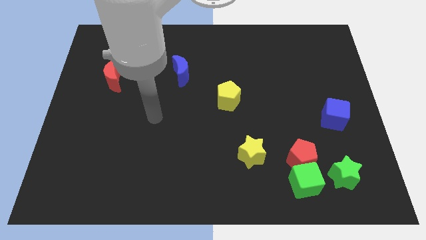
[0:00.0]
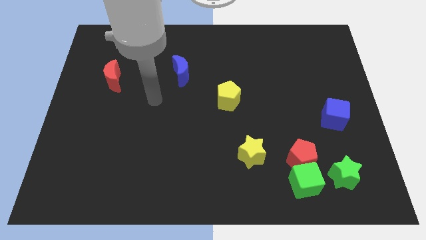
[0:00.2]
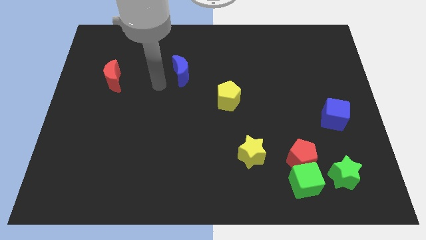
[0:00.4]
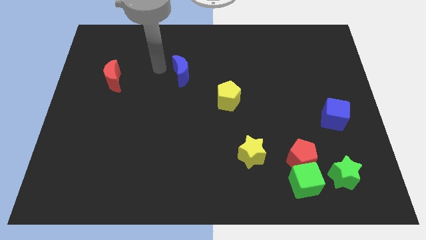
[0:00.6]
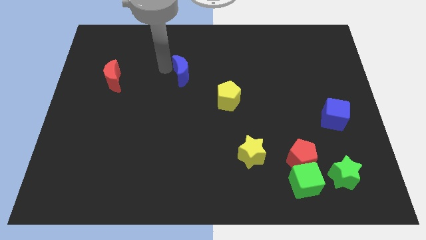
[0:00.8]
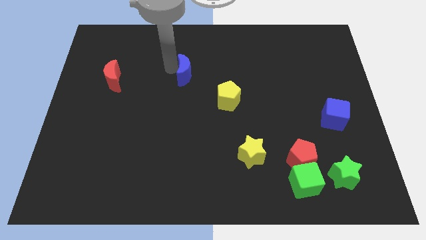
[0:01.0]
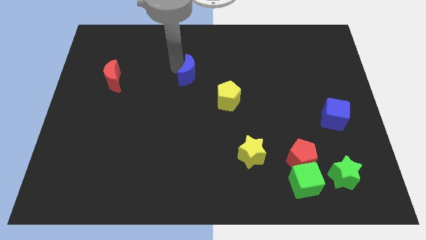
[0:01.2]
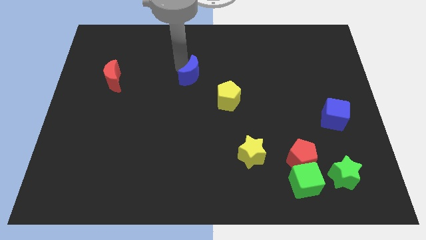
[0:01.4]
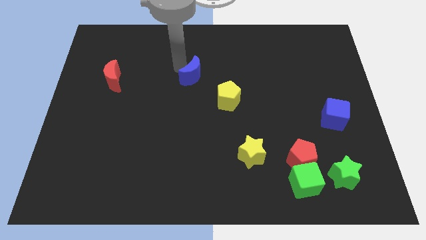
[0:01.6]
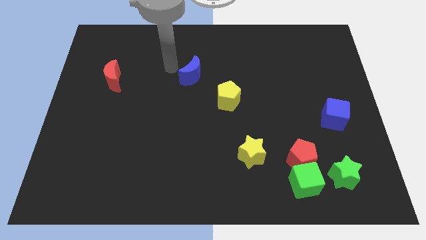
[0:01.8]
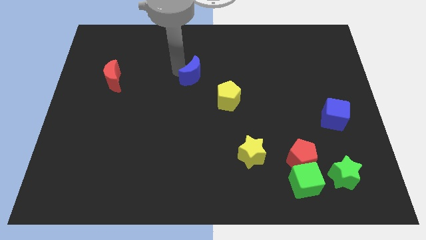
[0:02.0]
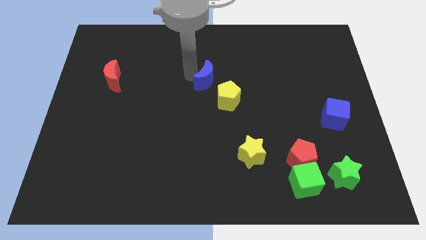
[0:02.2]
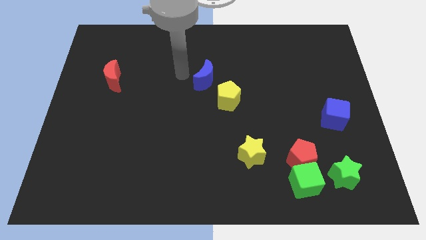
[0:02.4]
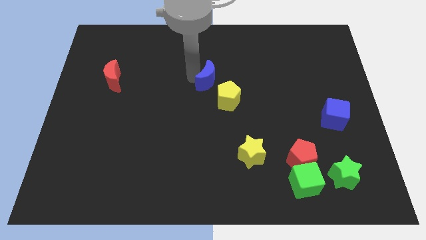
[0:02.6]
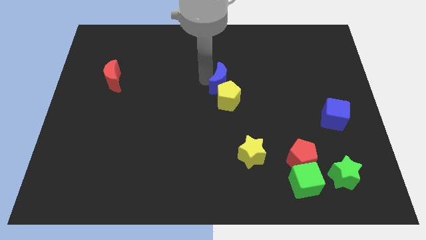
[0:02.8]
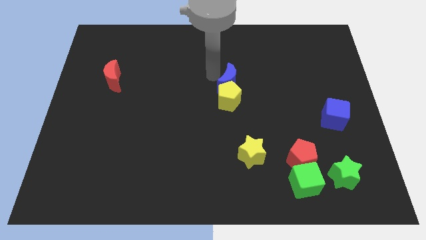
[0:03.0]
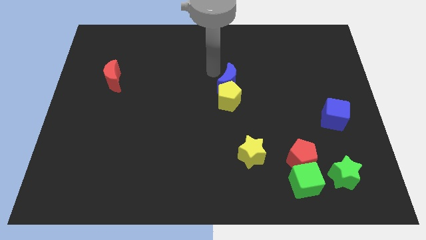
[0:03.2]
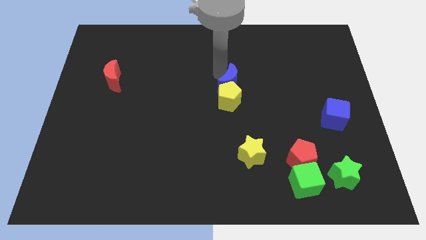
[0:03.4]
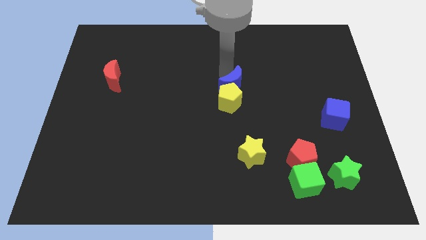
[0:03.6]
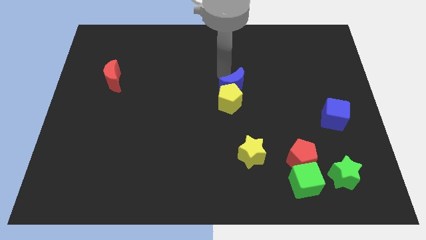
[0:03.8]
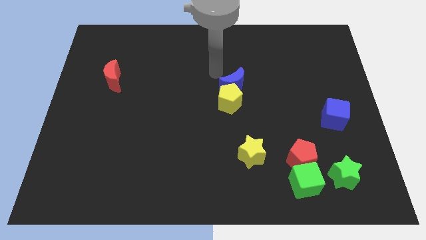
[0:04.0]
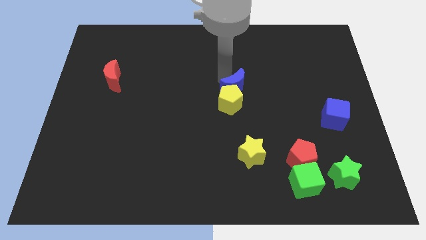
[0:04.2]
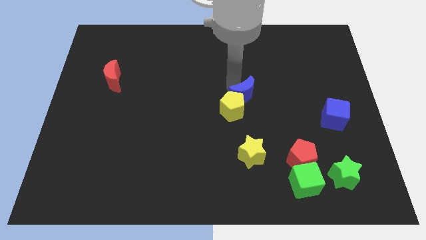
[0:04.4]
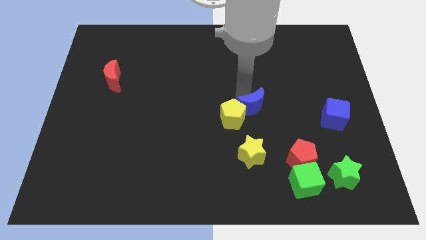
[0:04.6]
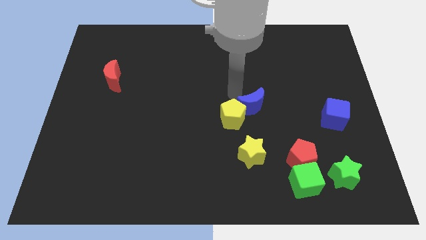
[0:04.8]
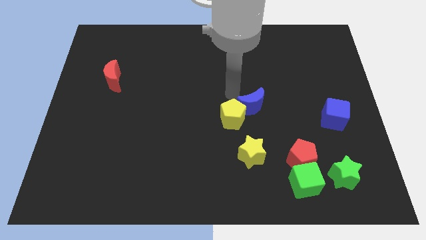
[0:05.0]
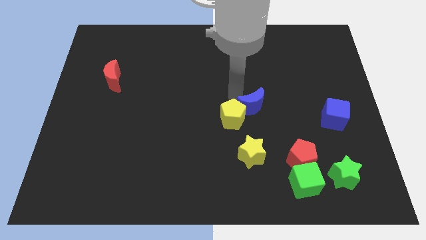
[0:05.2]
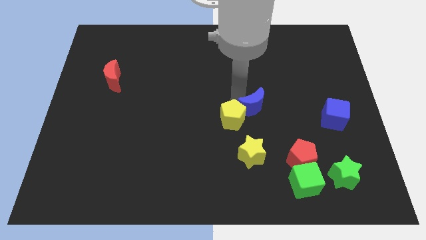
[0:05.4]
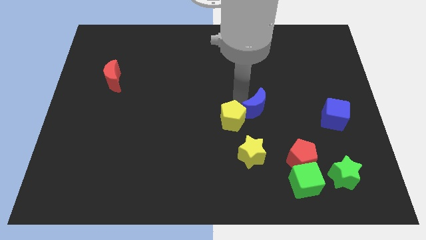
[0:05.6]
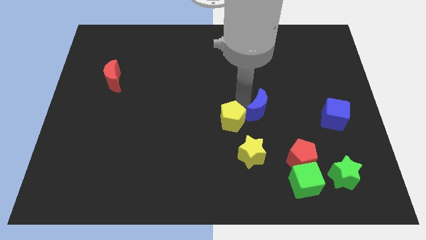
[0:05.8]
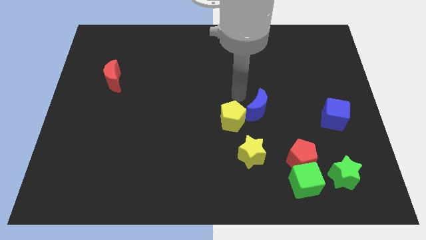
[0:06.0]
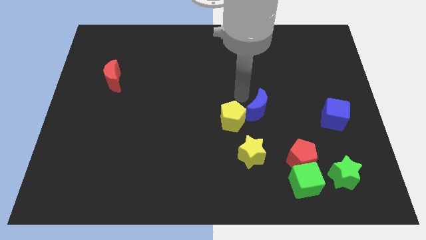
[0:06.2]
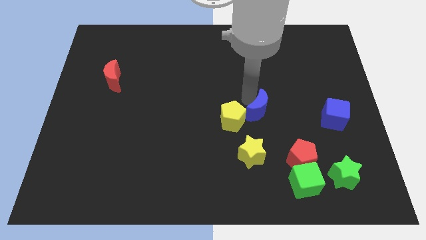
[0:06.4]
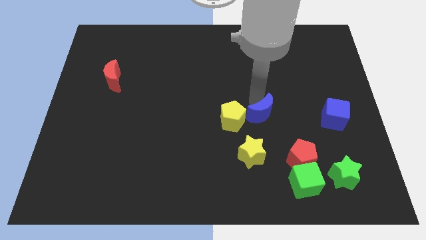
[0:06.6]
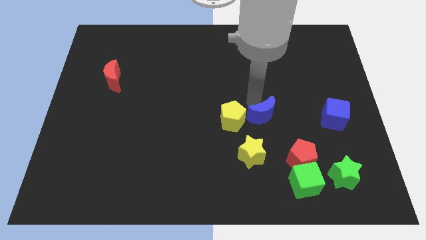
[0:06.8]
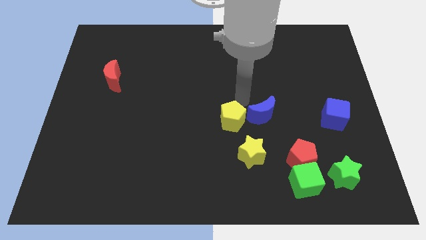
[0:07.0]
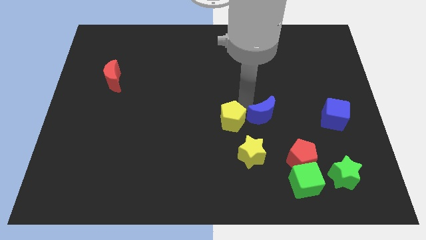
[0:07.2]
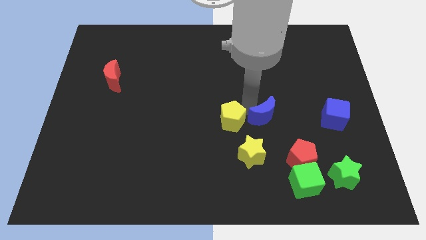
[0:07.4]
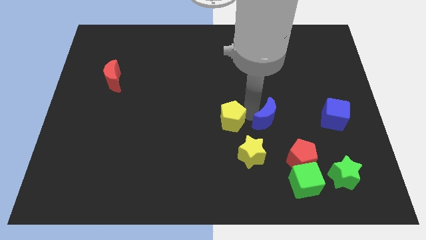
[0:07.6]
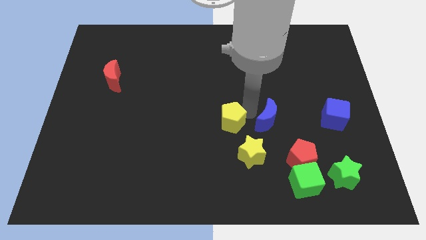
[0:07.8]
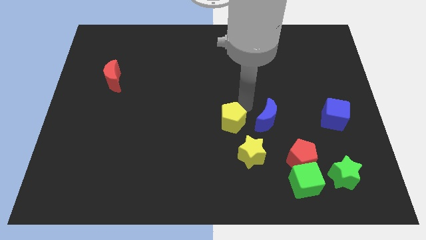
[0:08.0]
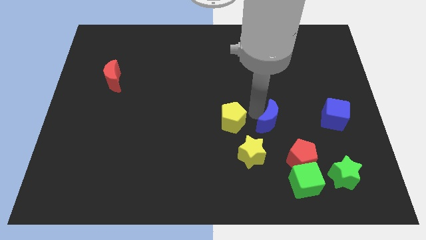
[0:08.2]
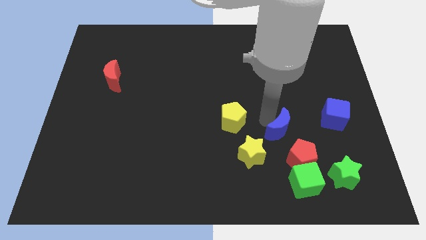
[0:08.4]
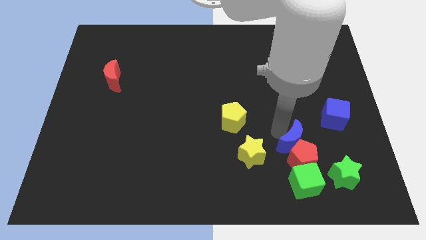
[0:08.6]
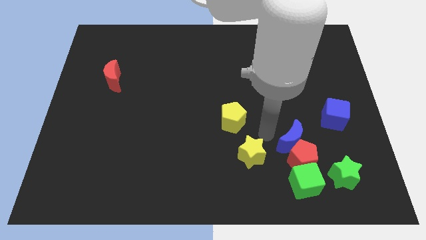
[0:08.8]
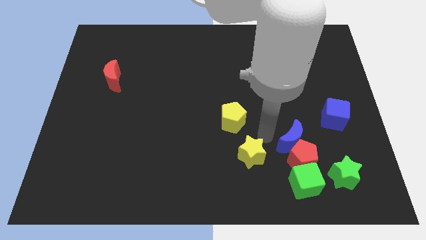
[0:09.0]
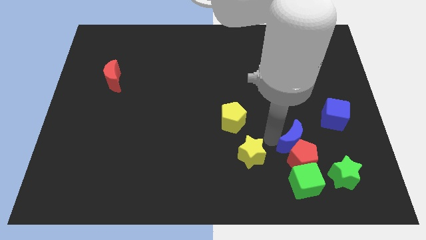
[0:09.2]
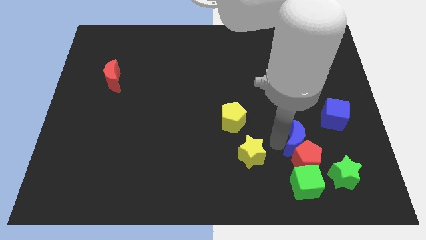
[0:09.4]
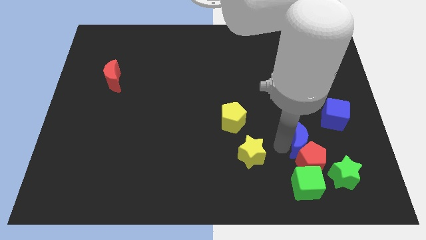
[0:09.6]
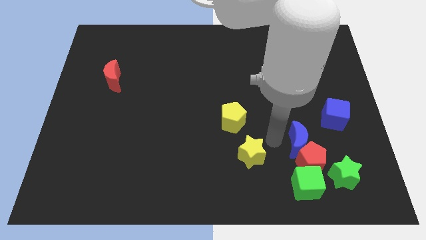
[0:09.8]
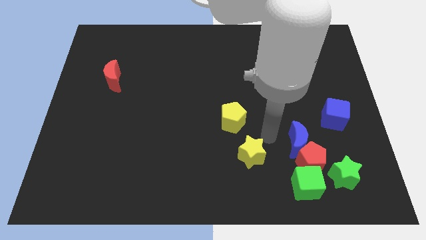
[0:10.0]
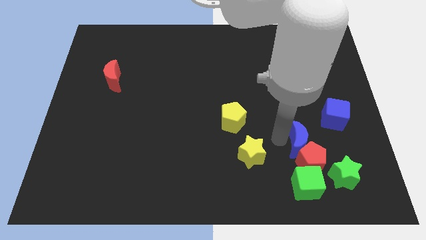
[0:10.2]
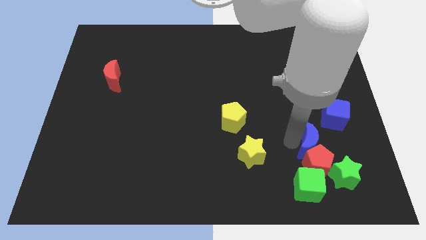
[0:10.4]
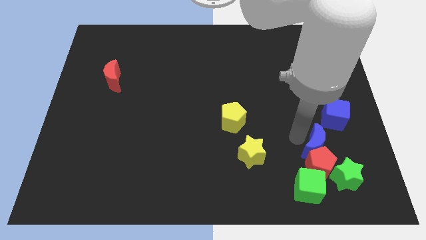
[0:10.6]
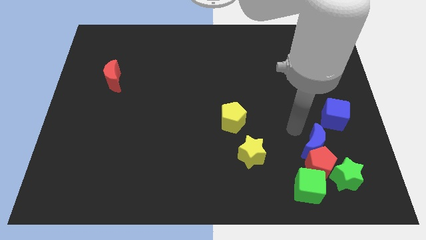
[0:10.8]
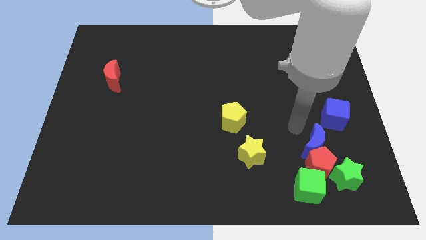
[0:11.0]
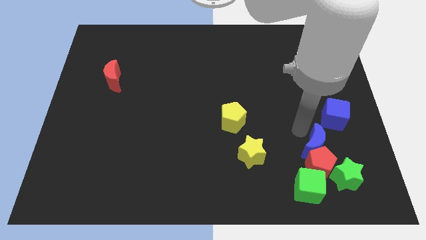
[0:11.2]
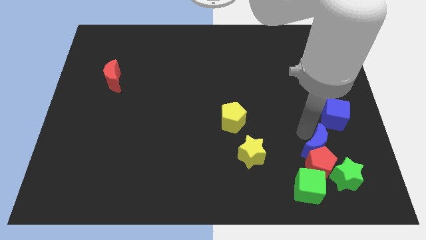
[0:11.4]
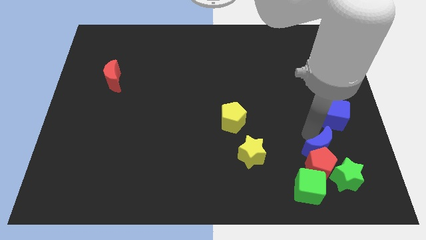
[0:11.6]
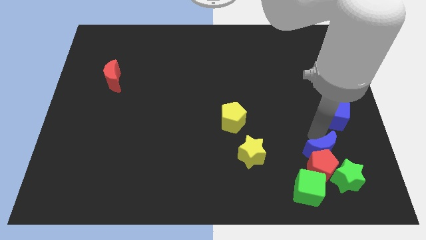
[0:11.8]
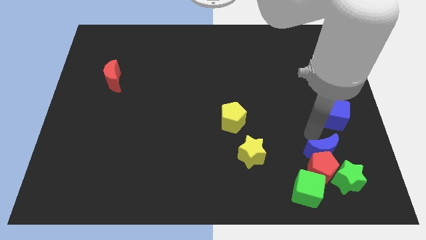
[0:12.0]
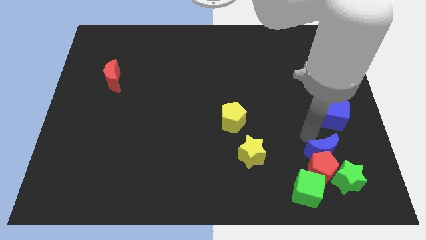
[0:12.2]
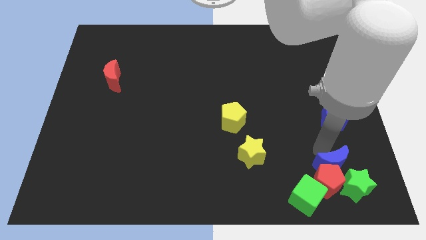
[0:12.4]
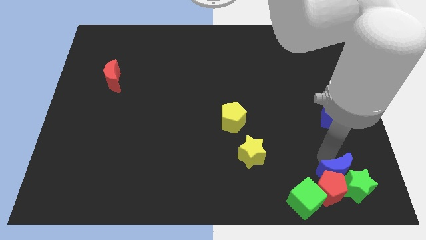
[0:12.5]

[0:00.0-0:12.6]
put the blue moon close to the green star

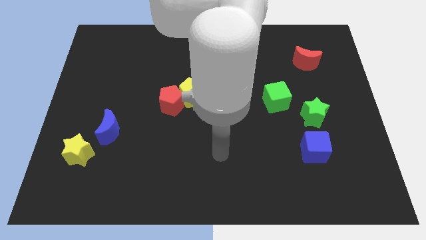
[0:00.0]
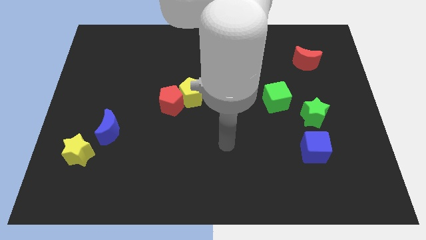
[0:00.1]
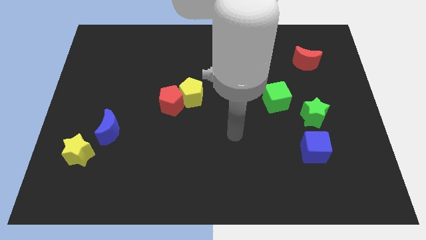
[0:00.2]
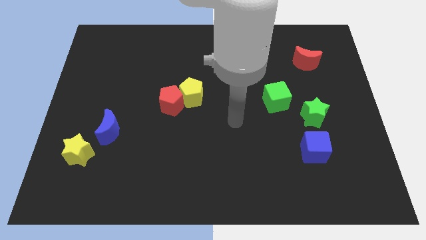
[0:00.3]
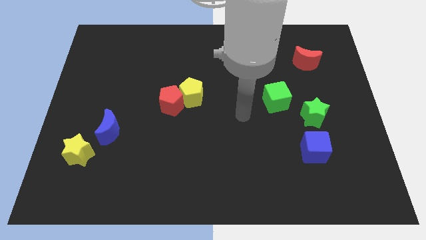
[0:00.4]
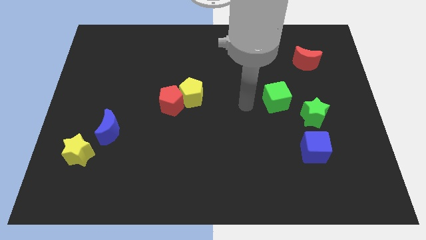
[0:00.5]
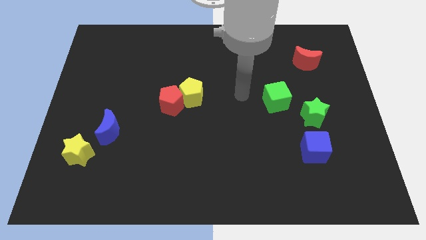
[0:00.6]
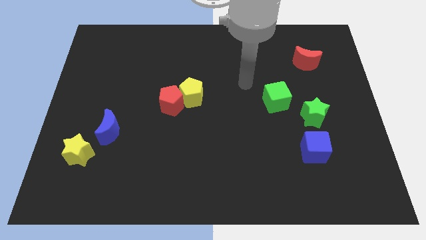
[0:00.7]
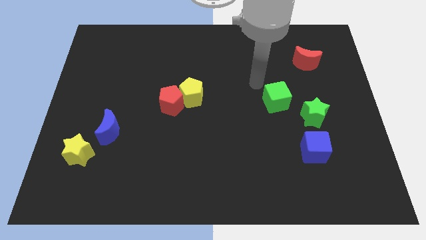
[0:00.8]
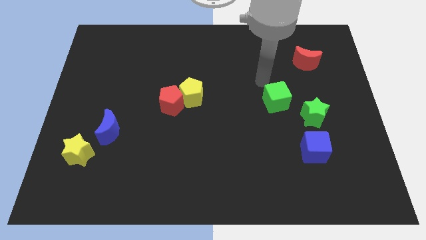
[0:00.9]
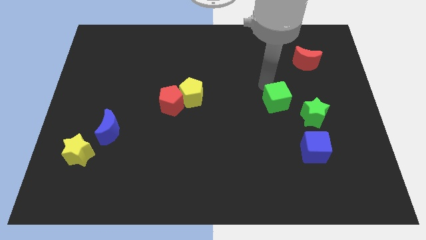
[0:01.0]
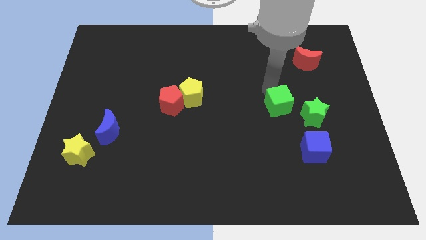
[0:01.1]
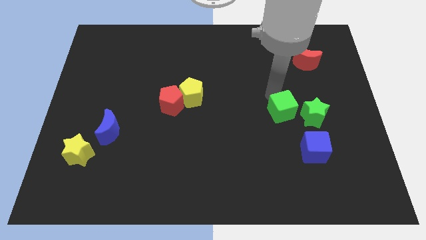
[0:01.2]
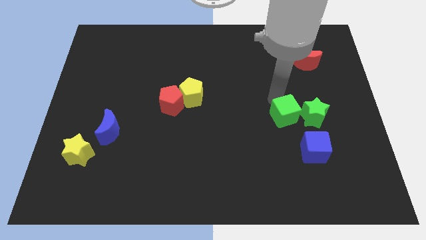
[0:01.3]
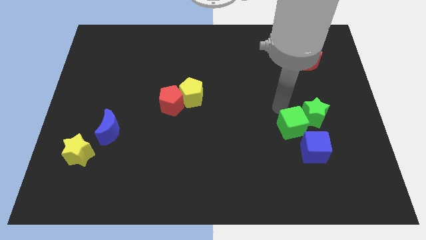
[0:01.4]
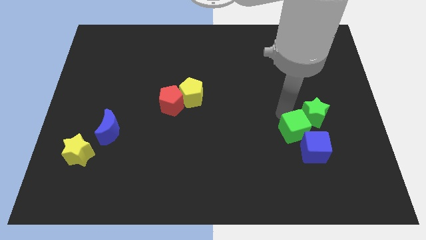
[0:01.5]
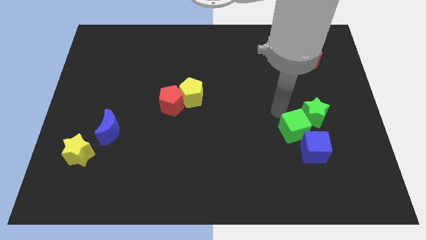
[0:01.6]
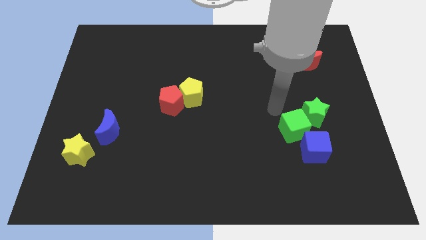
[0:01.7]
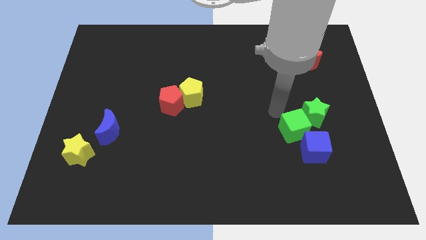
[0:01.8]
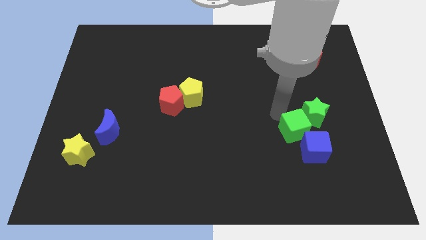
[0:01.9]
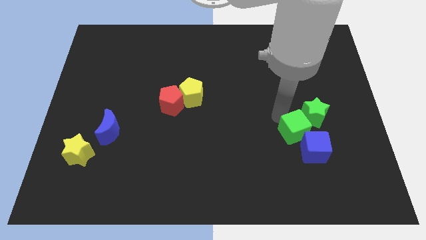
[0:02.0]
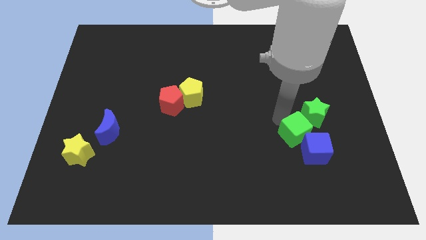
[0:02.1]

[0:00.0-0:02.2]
move the green cube close to the blue cube
